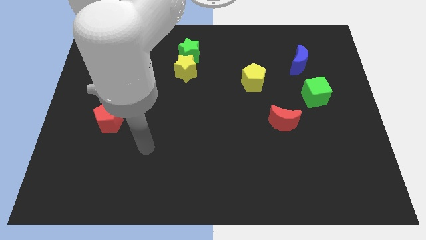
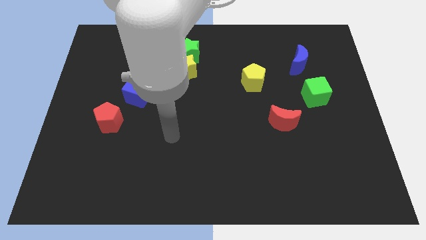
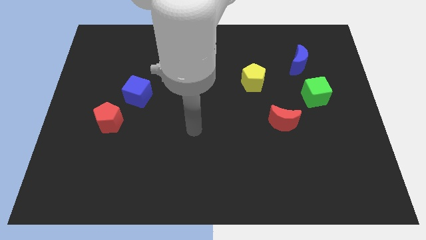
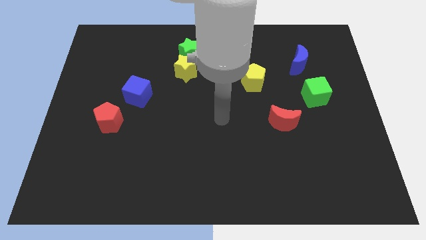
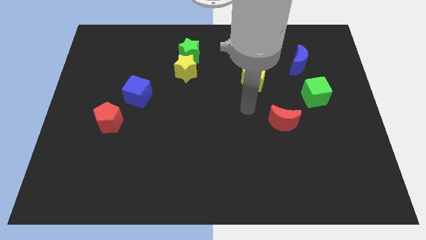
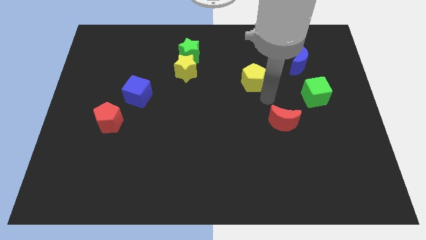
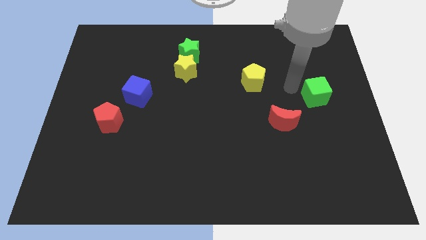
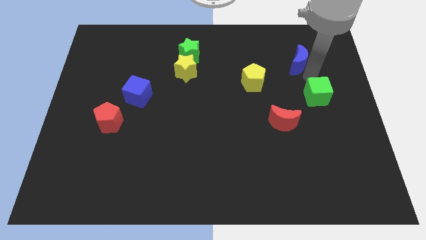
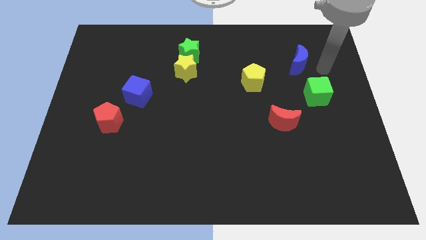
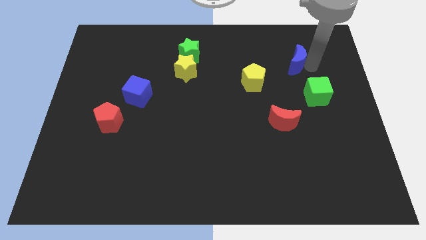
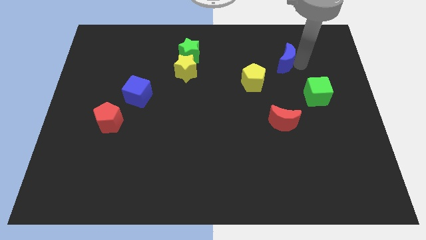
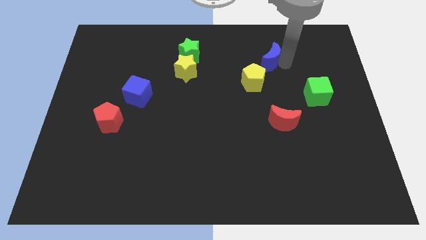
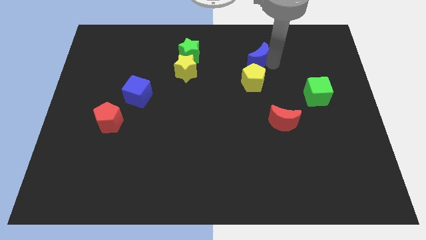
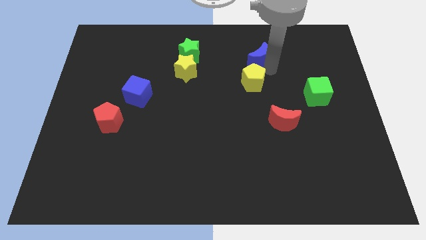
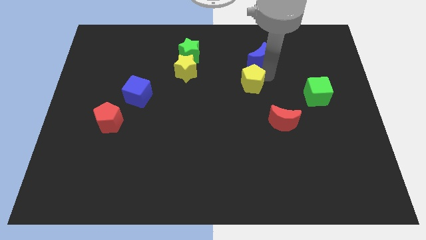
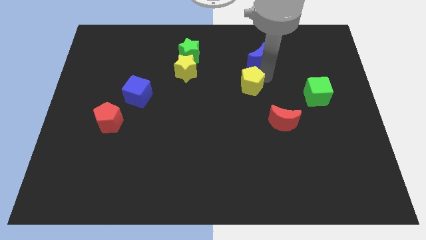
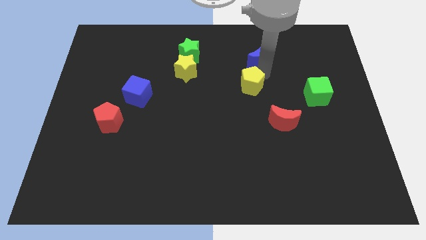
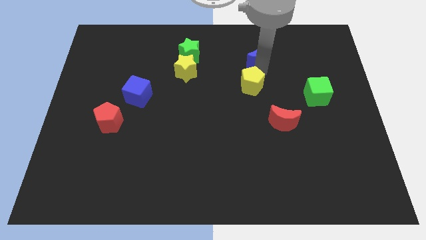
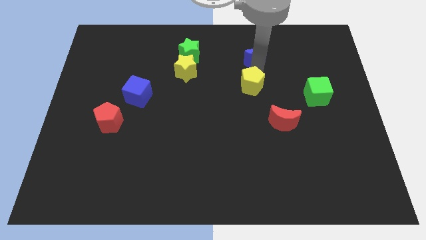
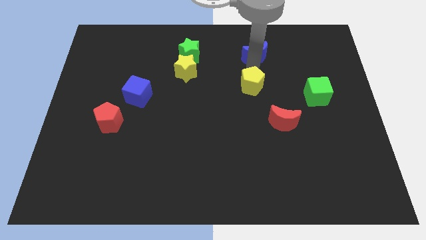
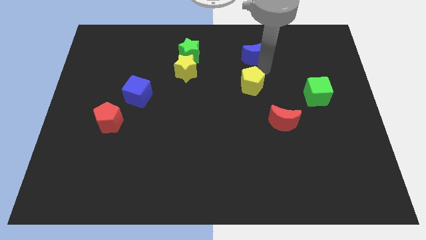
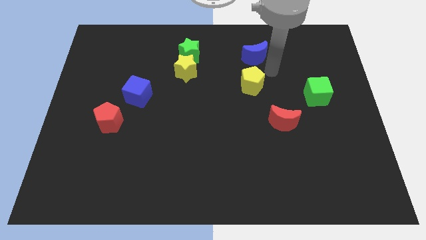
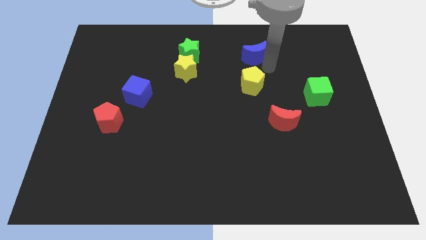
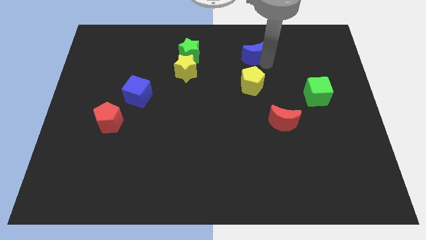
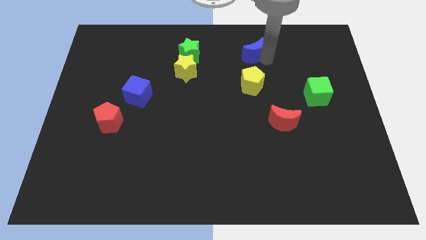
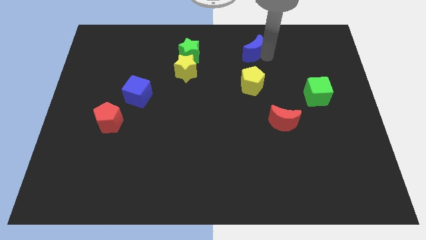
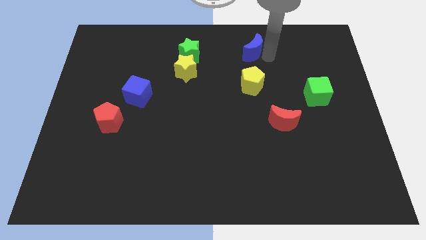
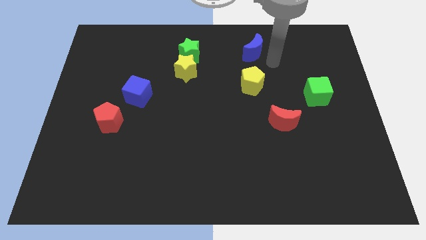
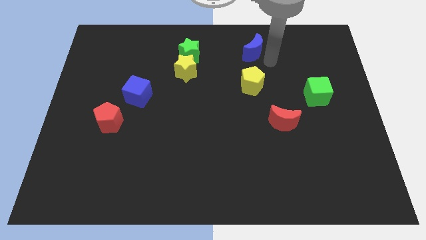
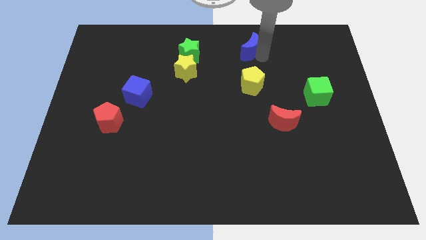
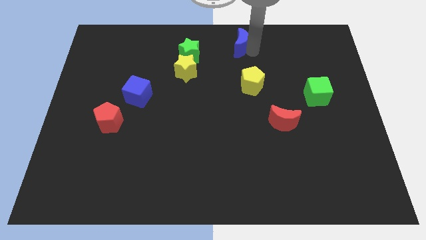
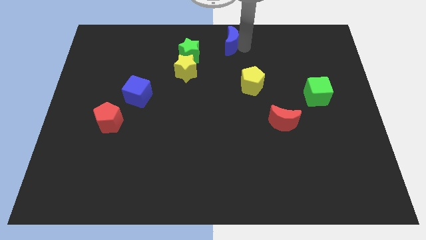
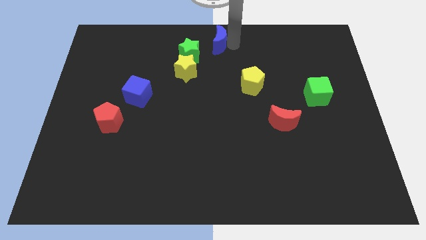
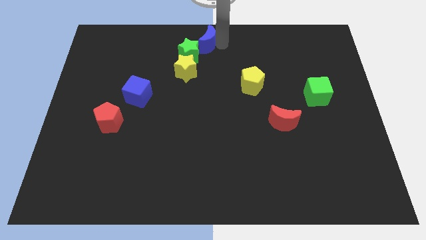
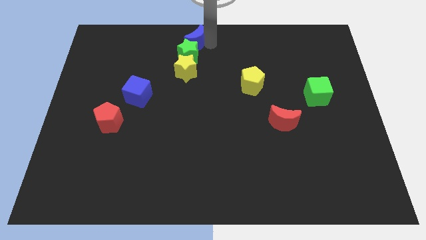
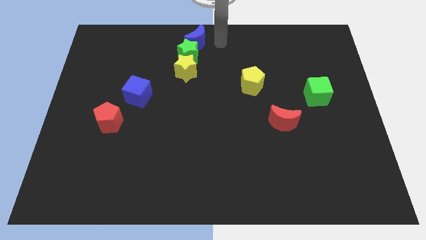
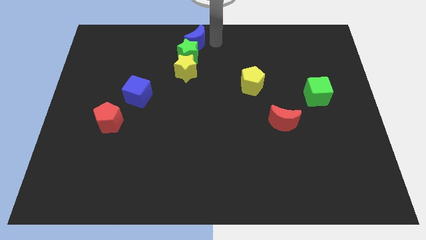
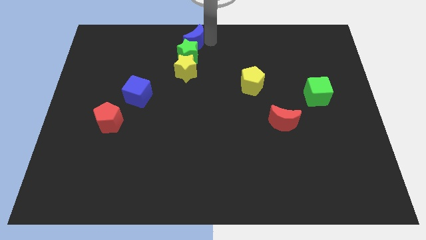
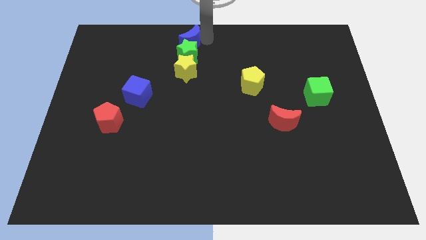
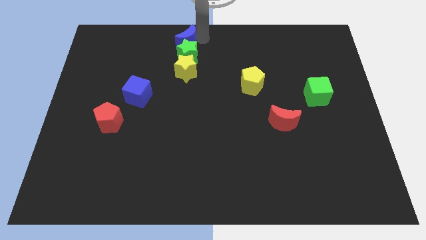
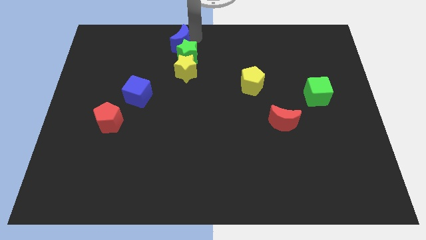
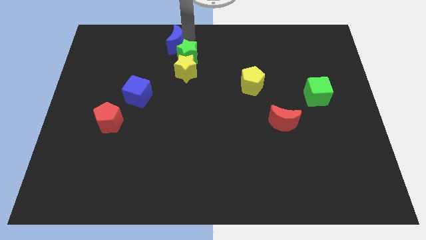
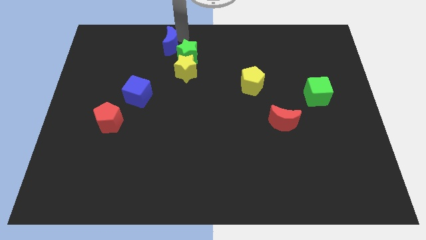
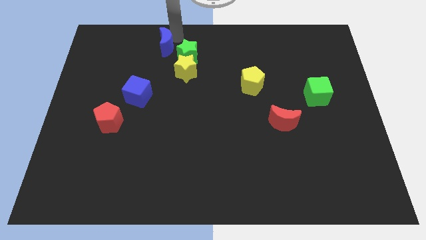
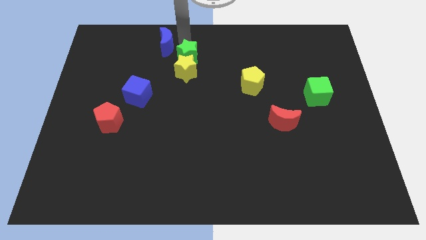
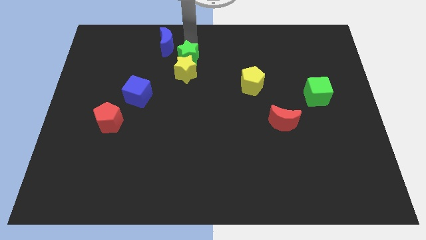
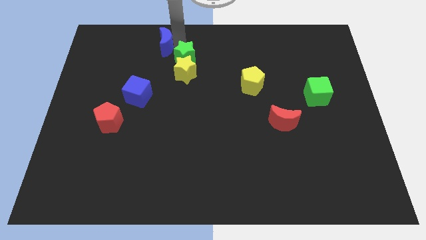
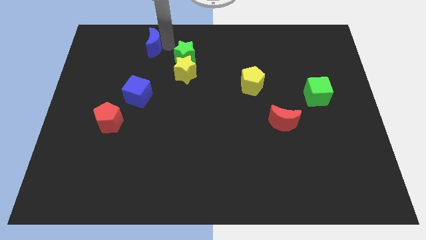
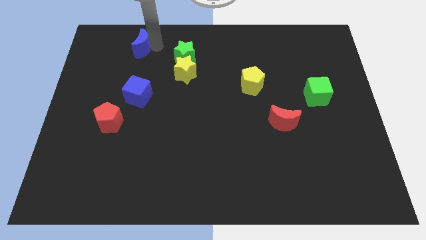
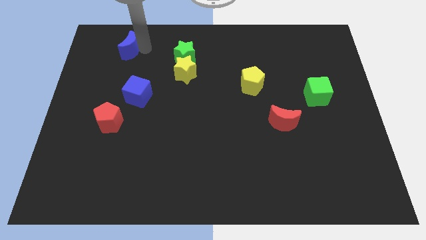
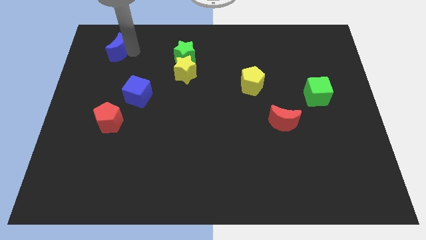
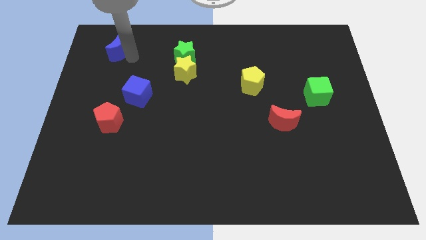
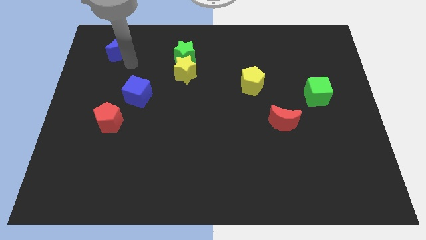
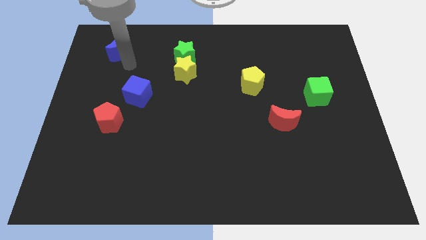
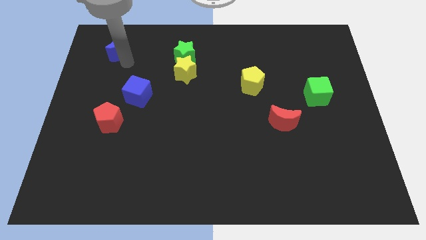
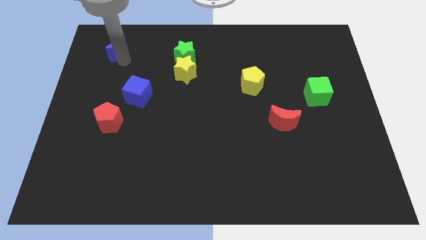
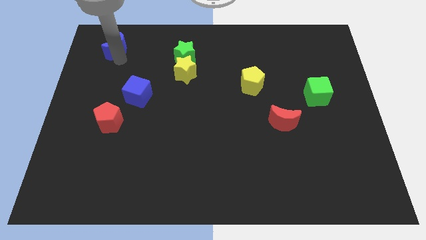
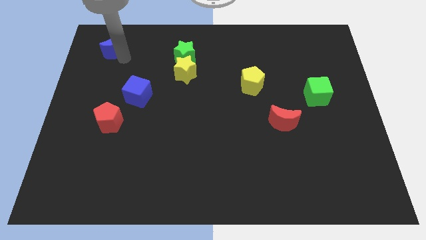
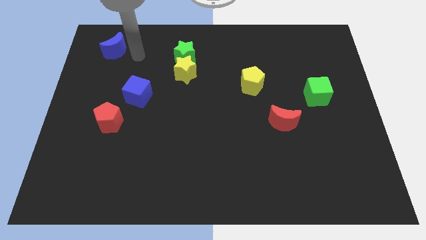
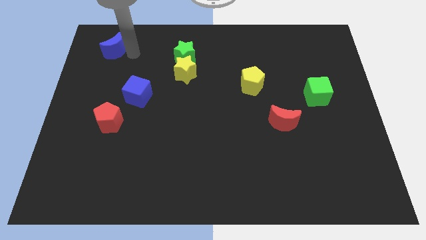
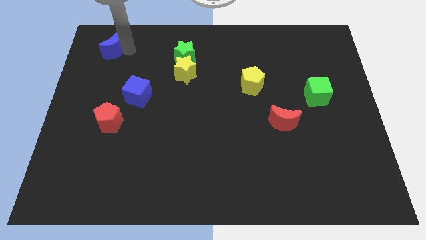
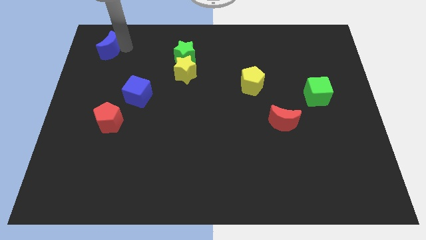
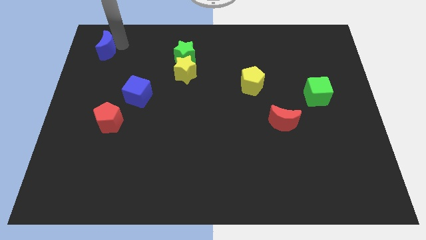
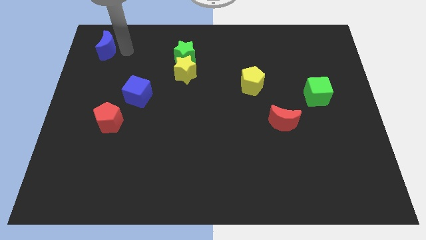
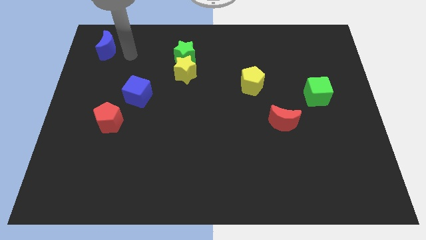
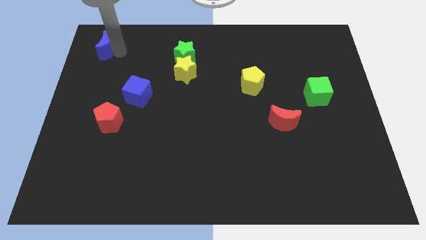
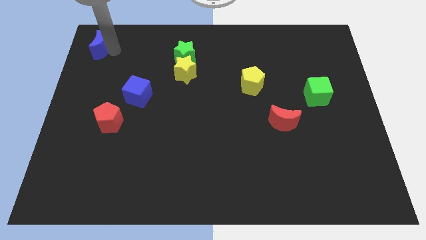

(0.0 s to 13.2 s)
slide the blue moon to the top left corner

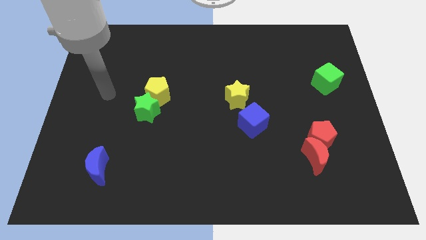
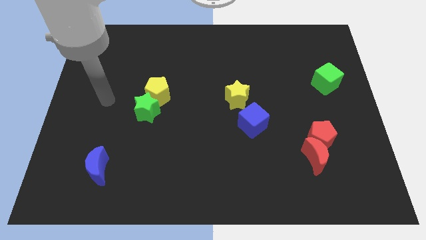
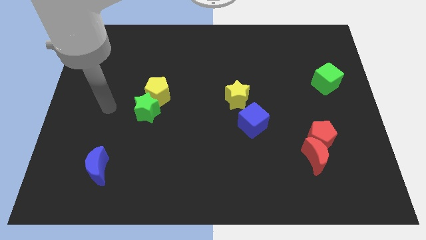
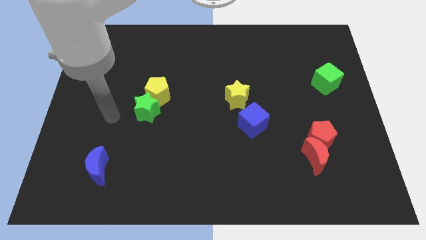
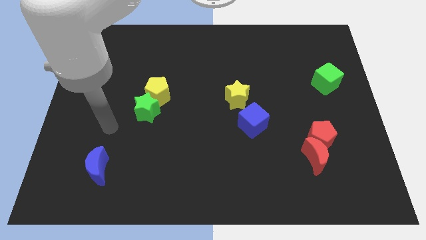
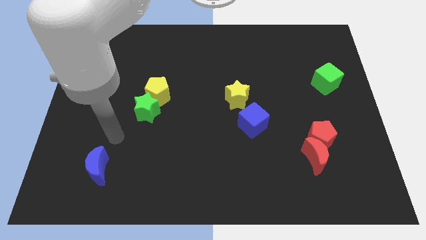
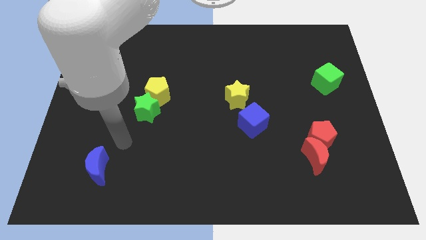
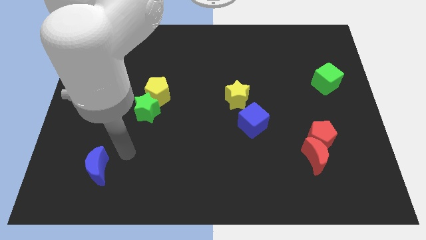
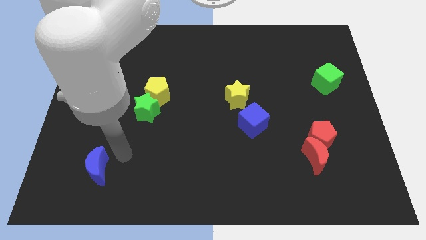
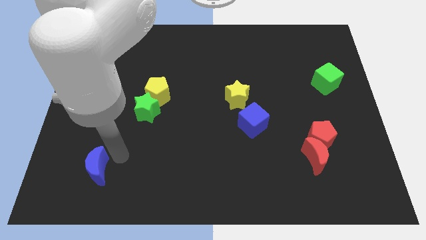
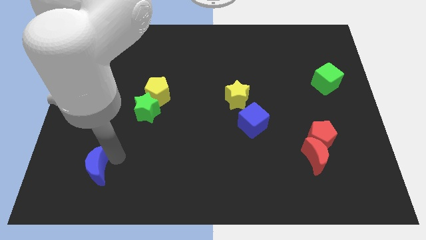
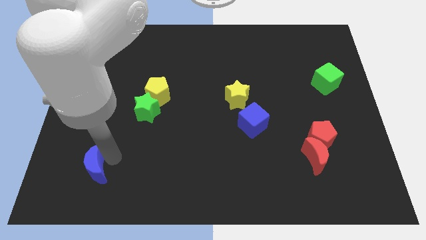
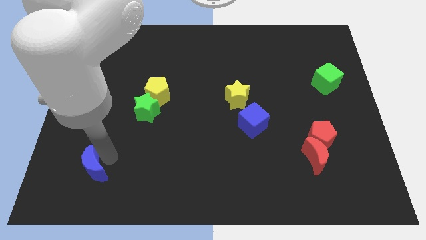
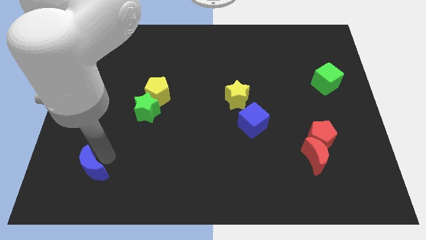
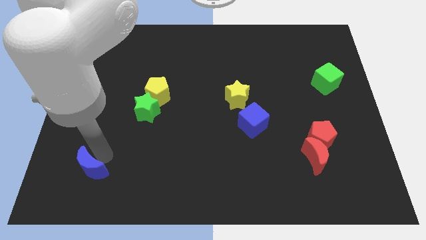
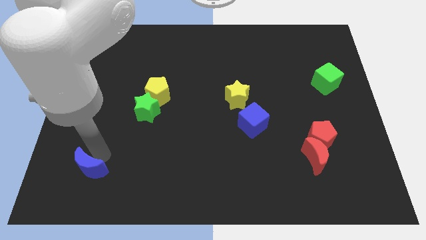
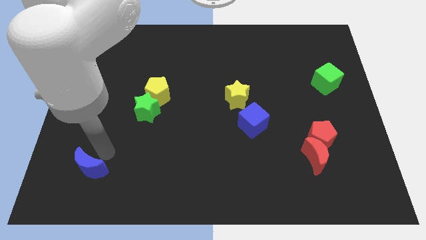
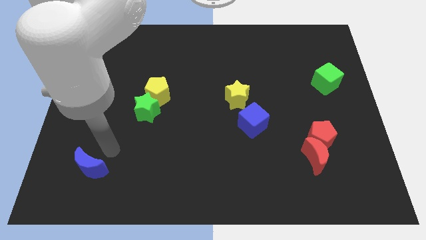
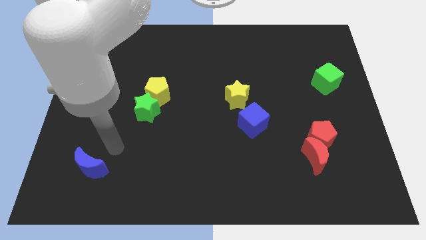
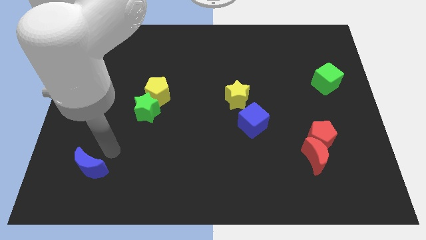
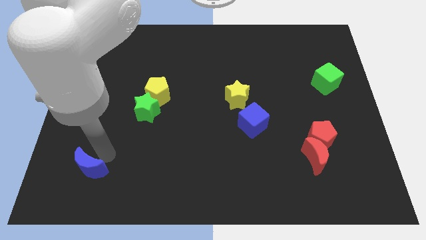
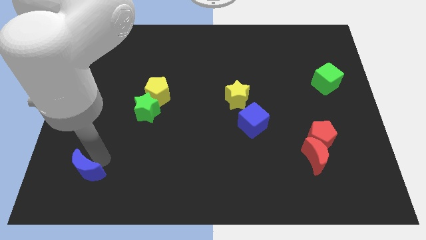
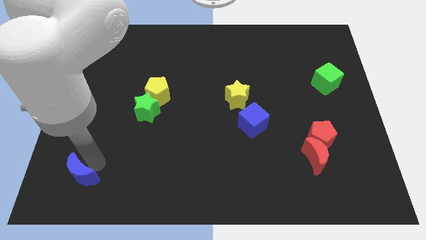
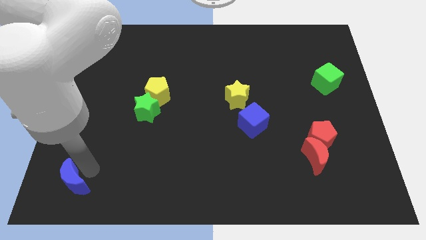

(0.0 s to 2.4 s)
push the blue moon to the lower left corner
